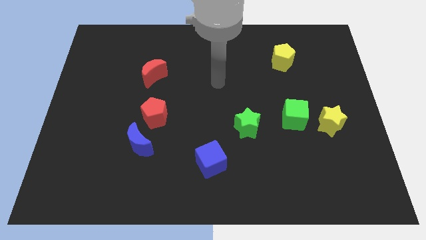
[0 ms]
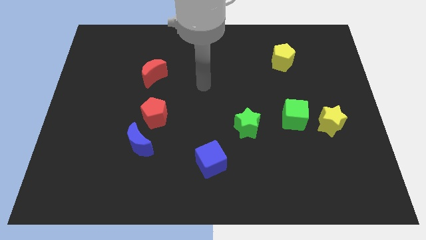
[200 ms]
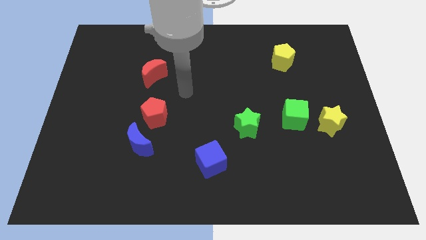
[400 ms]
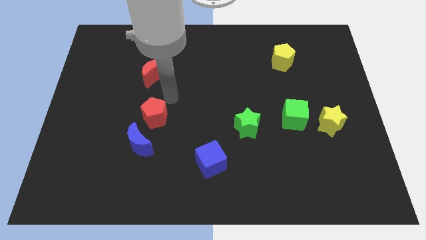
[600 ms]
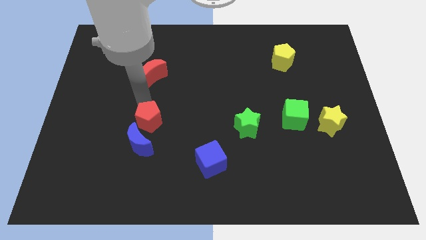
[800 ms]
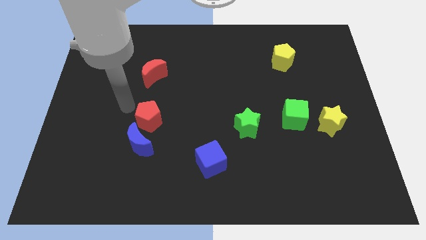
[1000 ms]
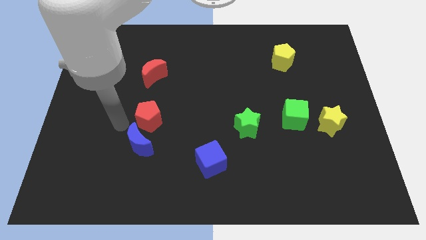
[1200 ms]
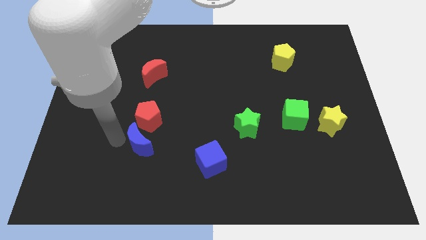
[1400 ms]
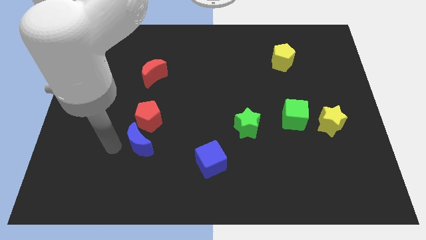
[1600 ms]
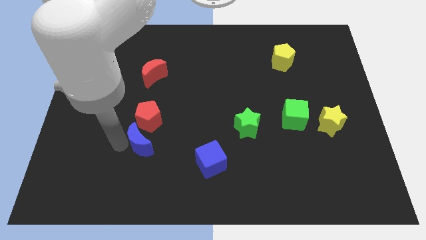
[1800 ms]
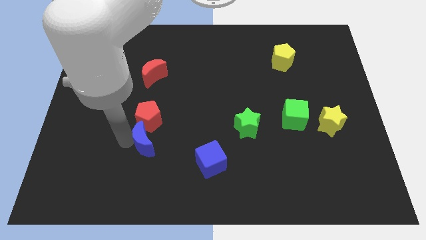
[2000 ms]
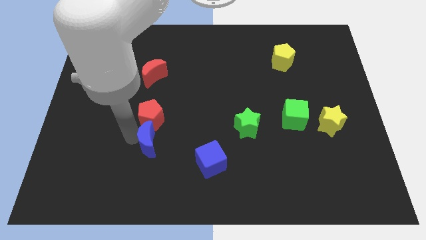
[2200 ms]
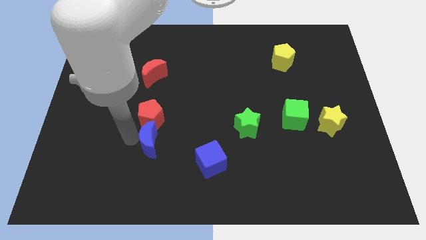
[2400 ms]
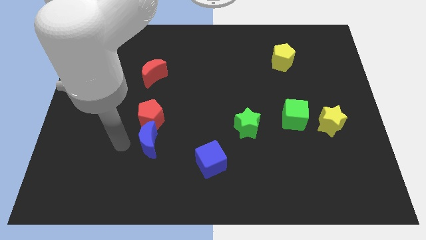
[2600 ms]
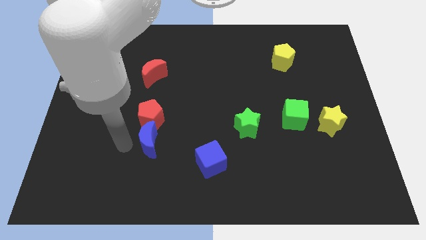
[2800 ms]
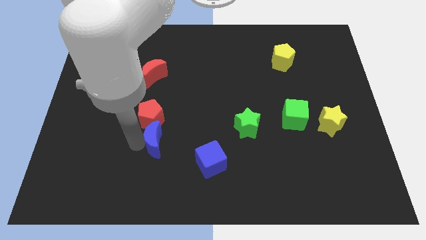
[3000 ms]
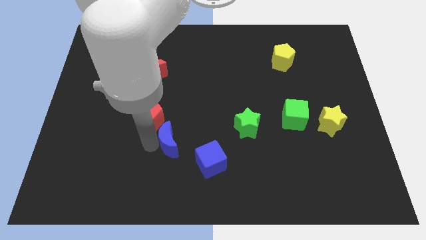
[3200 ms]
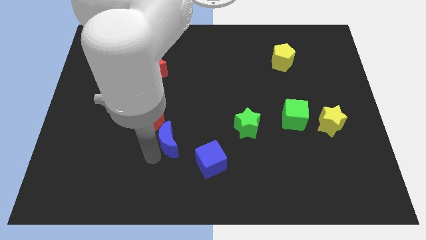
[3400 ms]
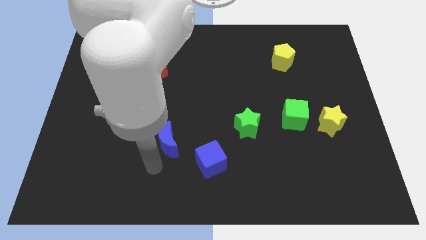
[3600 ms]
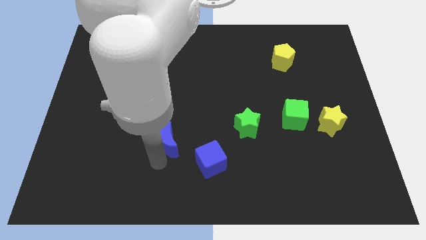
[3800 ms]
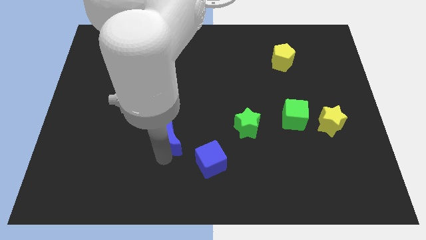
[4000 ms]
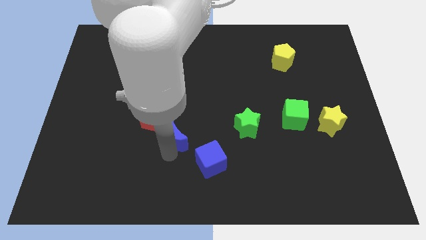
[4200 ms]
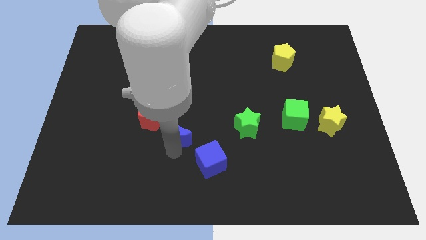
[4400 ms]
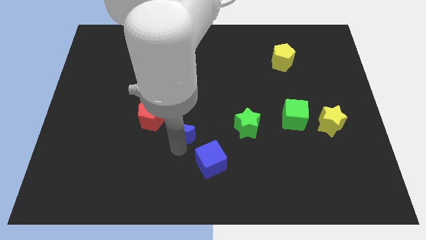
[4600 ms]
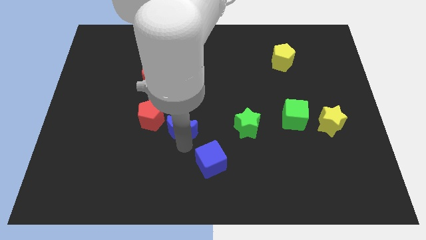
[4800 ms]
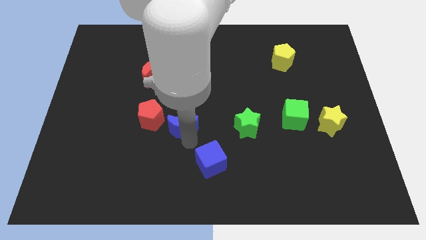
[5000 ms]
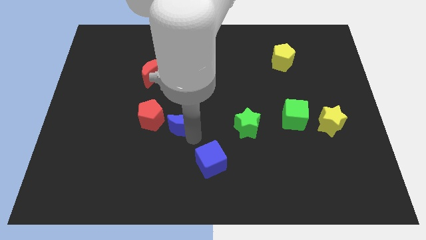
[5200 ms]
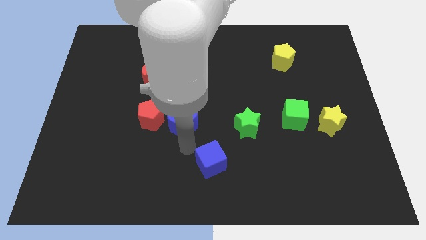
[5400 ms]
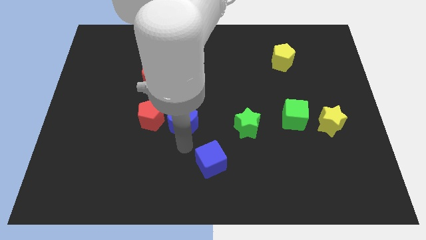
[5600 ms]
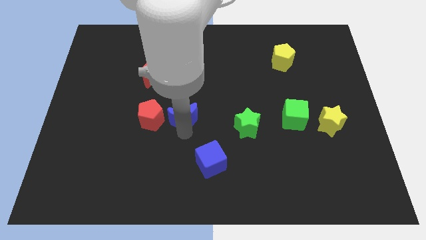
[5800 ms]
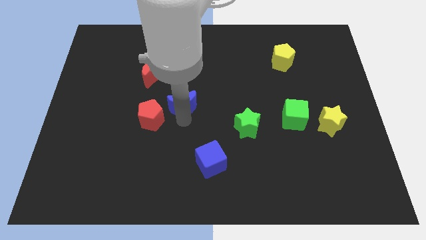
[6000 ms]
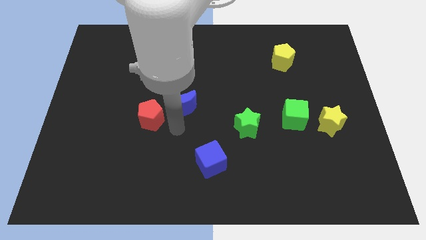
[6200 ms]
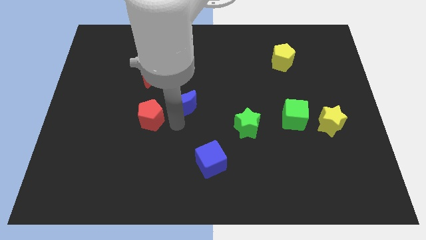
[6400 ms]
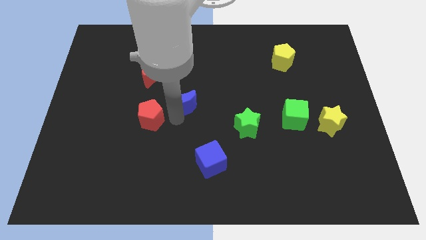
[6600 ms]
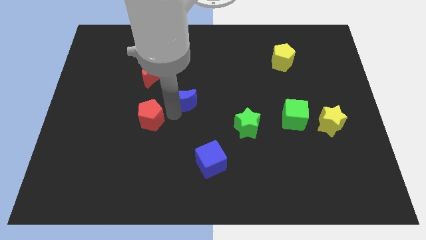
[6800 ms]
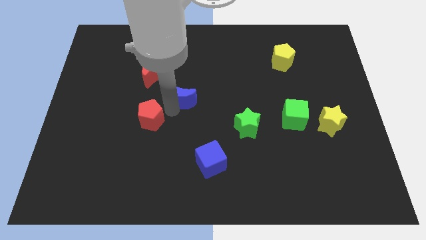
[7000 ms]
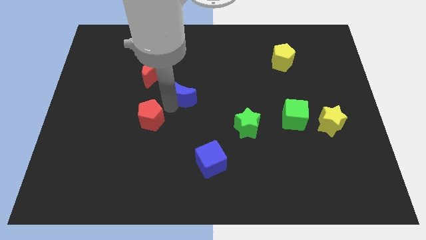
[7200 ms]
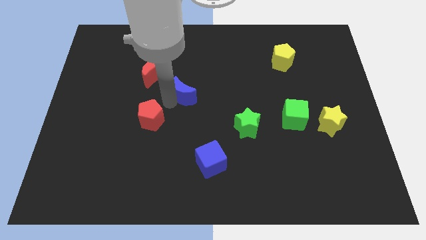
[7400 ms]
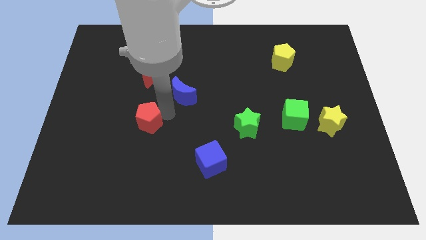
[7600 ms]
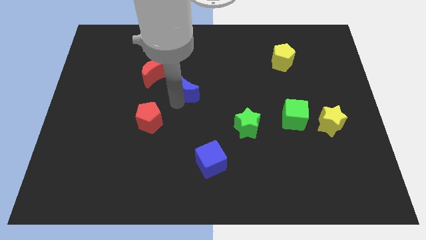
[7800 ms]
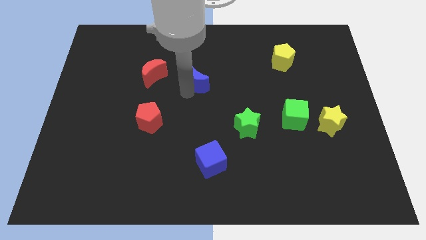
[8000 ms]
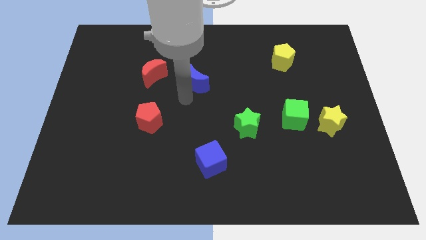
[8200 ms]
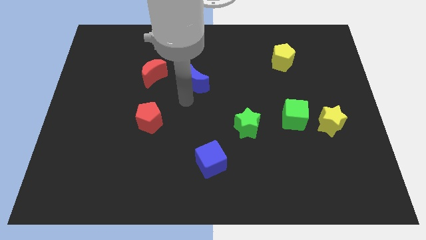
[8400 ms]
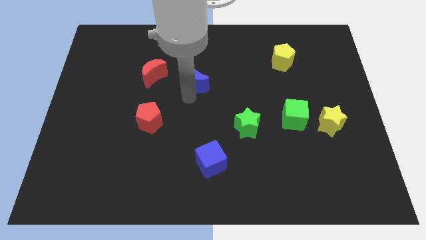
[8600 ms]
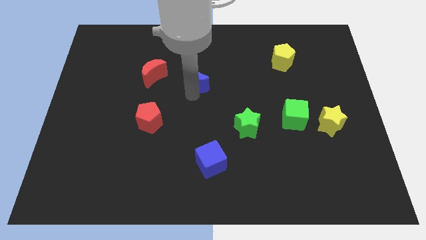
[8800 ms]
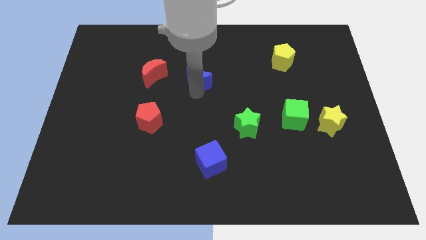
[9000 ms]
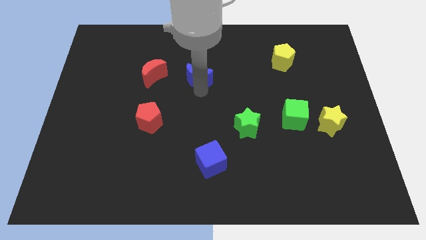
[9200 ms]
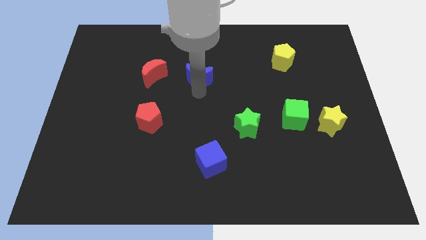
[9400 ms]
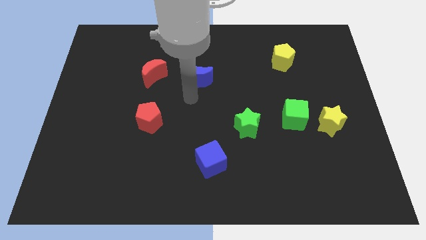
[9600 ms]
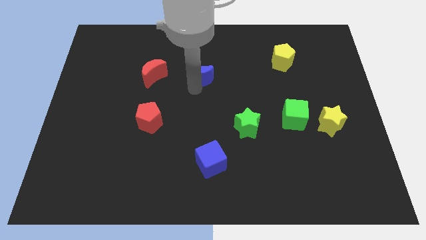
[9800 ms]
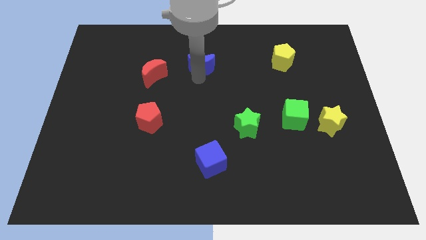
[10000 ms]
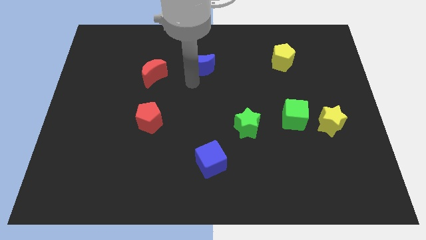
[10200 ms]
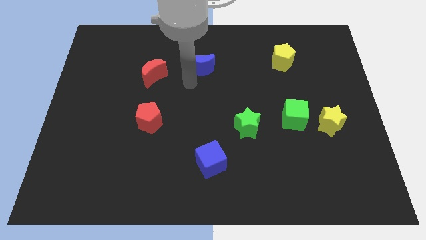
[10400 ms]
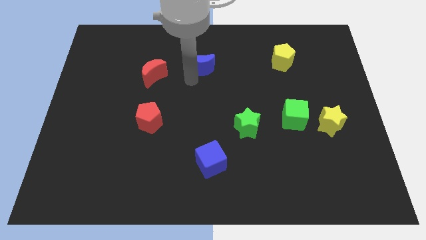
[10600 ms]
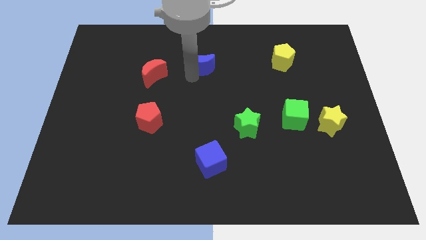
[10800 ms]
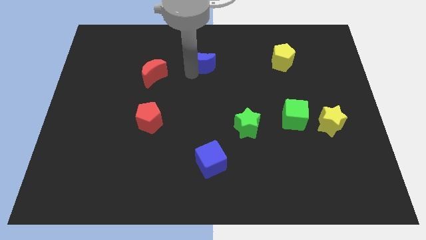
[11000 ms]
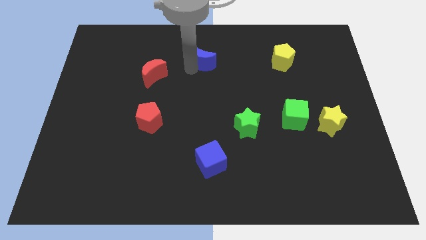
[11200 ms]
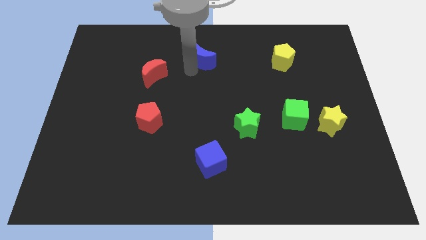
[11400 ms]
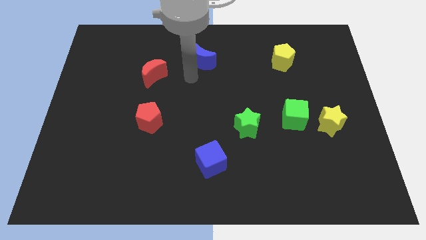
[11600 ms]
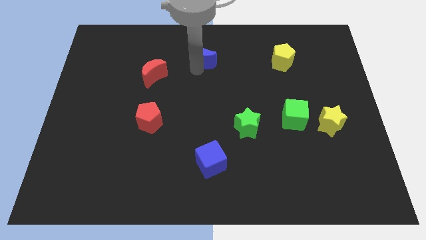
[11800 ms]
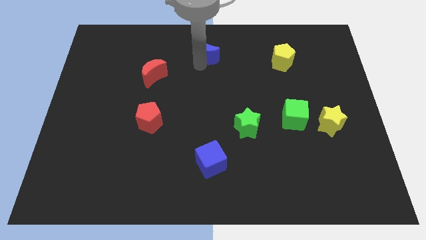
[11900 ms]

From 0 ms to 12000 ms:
move the blue moon to the top side

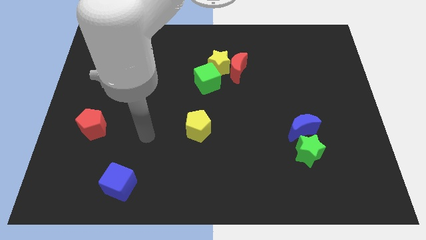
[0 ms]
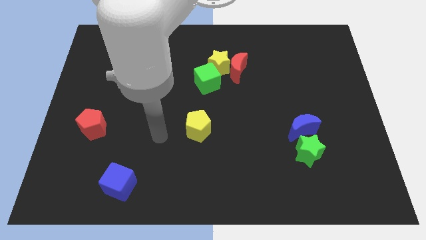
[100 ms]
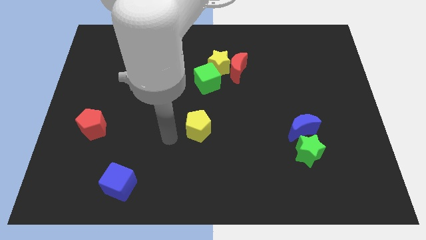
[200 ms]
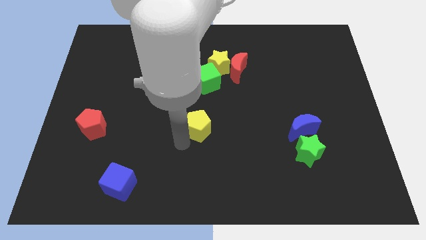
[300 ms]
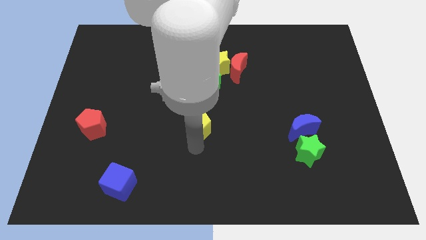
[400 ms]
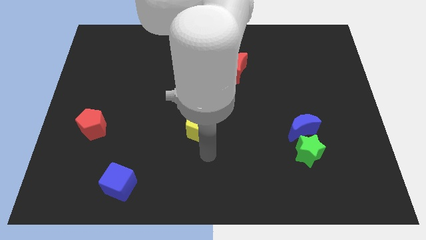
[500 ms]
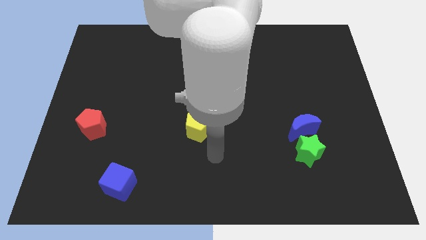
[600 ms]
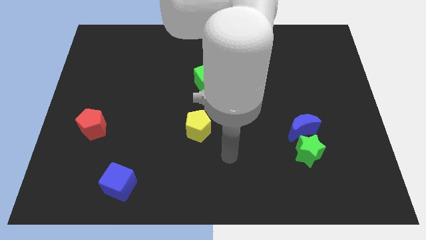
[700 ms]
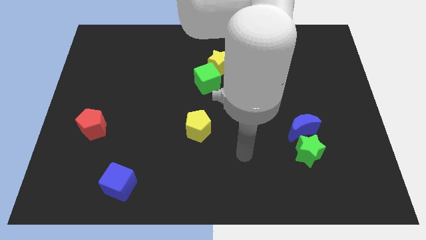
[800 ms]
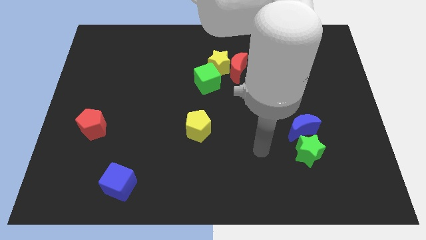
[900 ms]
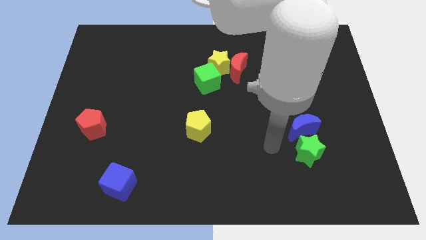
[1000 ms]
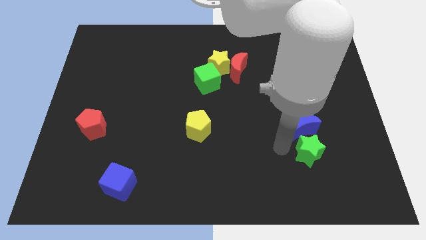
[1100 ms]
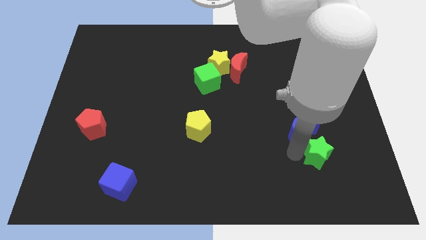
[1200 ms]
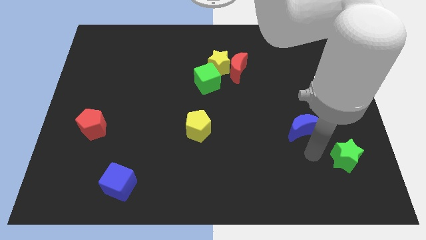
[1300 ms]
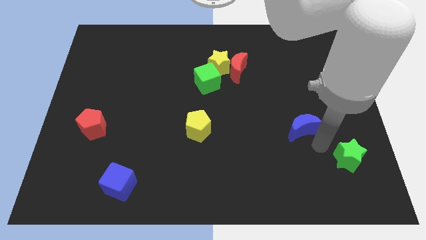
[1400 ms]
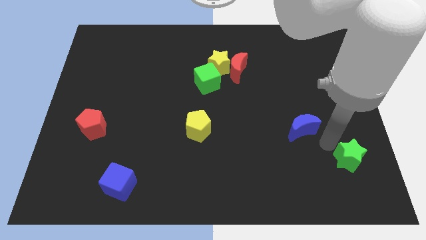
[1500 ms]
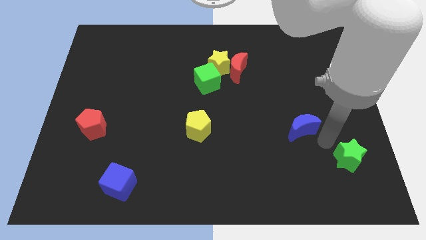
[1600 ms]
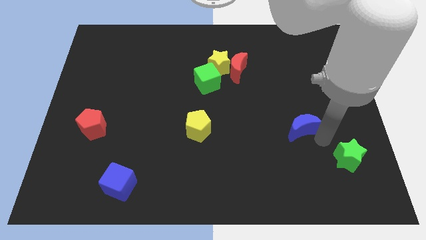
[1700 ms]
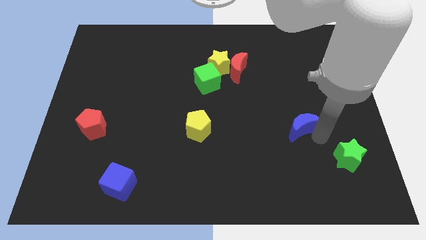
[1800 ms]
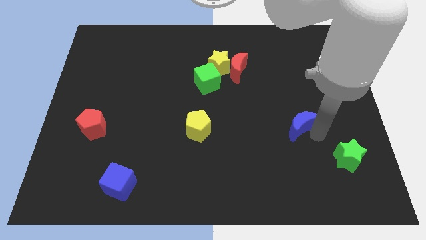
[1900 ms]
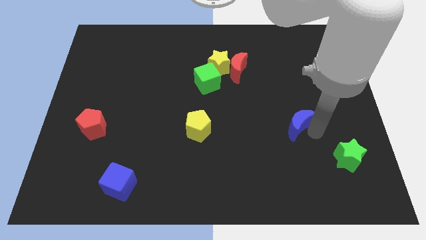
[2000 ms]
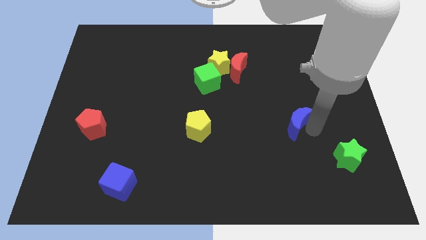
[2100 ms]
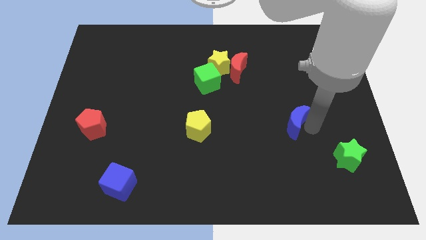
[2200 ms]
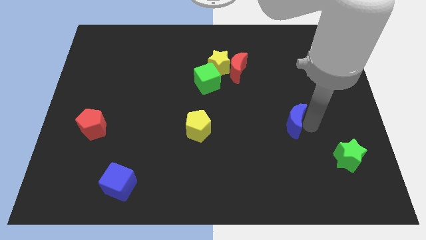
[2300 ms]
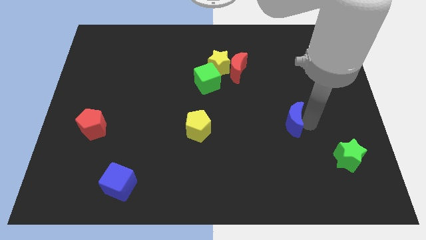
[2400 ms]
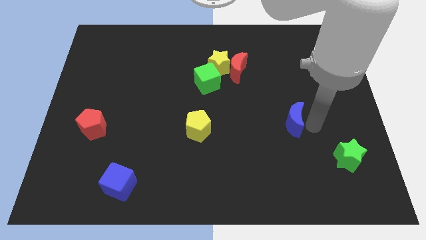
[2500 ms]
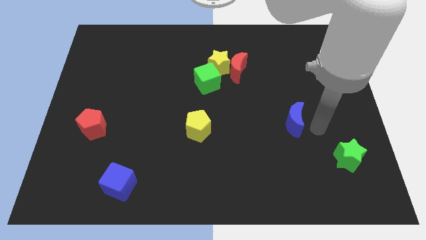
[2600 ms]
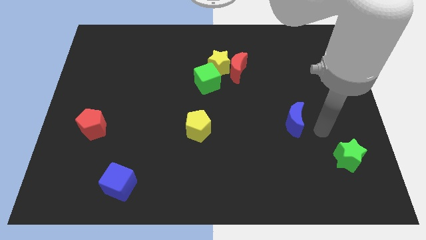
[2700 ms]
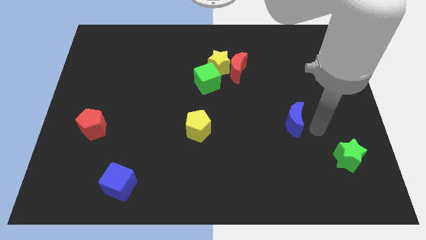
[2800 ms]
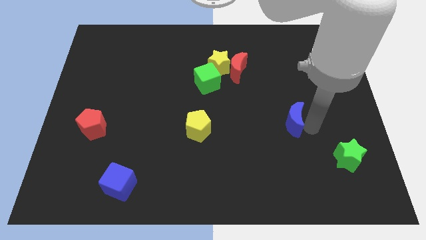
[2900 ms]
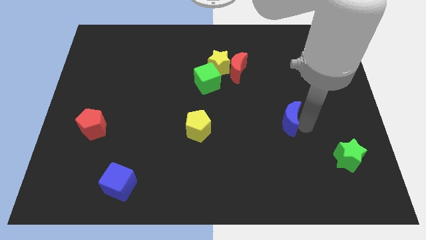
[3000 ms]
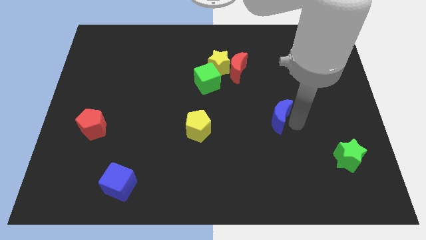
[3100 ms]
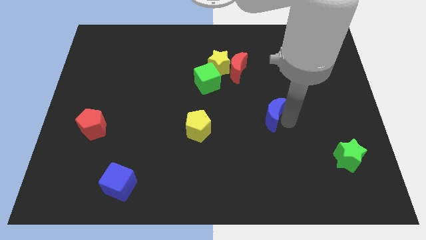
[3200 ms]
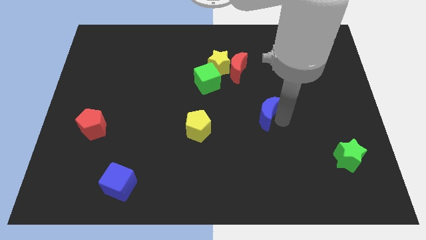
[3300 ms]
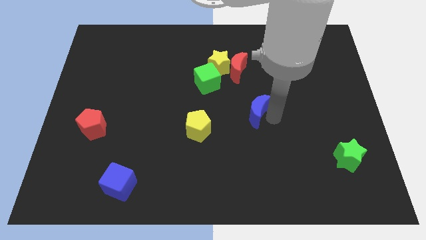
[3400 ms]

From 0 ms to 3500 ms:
push the blue moon to the center of the board
